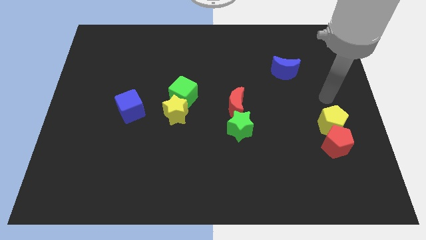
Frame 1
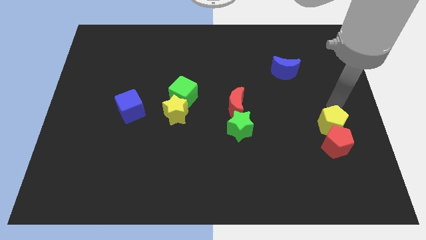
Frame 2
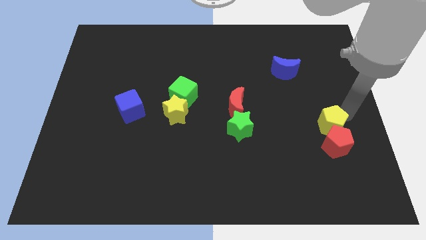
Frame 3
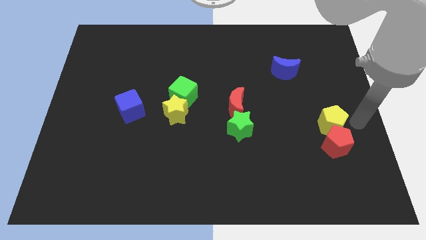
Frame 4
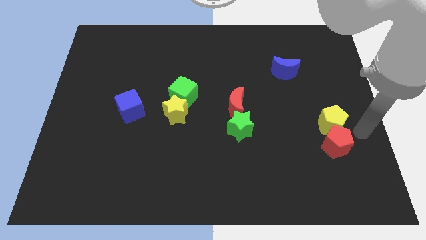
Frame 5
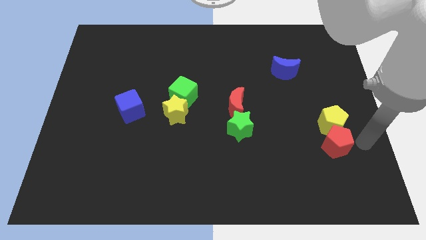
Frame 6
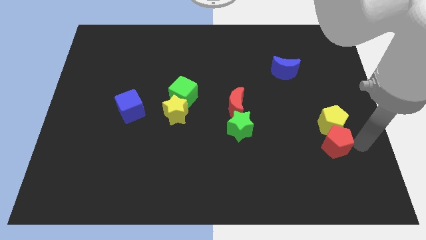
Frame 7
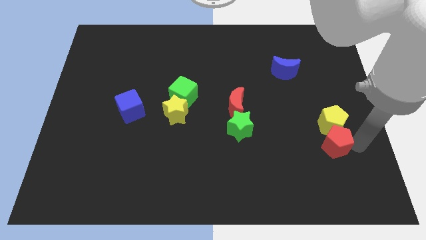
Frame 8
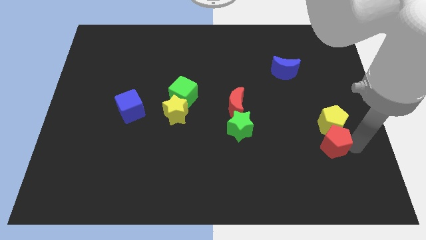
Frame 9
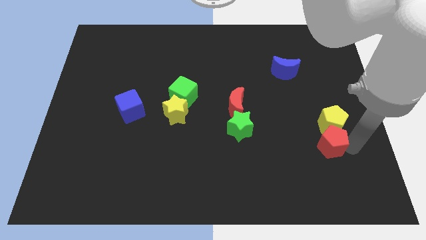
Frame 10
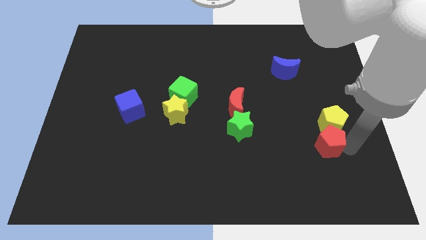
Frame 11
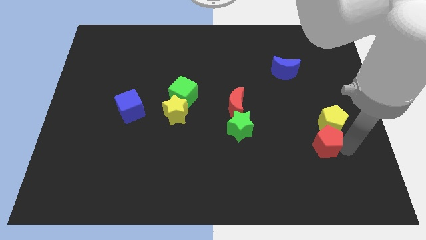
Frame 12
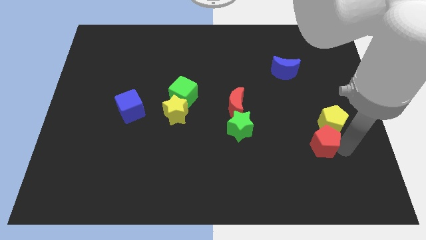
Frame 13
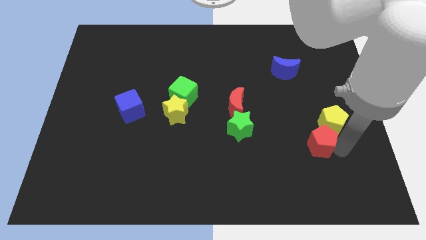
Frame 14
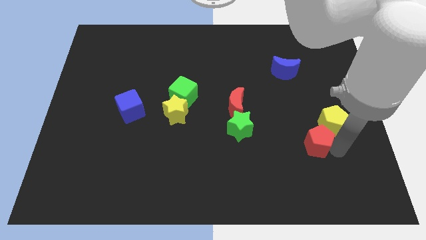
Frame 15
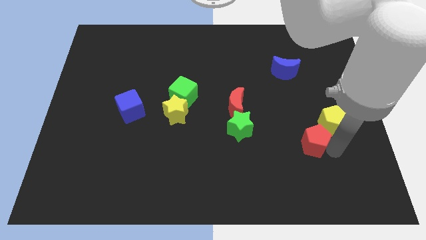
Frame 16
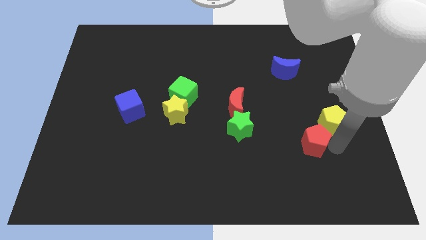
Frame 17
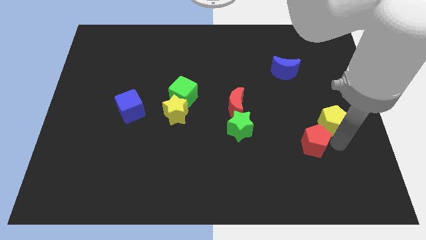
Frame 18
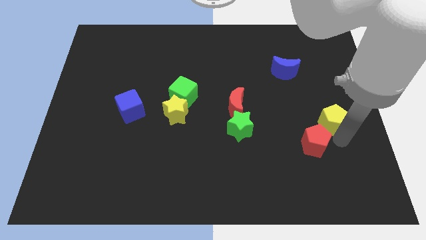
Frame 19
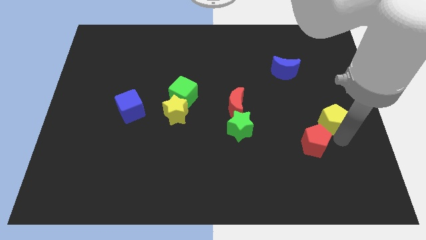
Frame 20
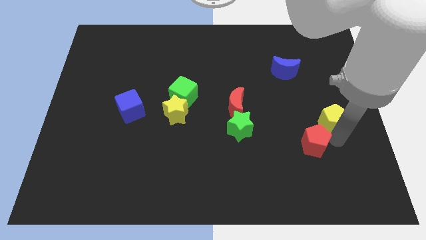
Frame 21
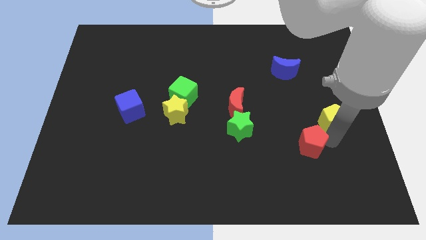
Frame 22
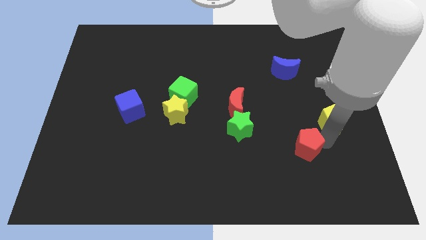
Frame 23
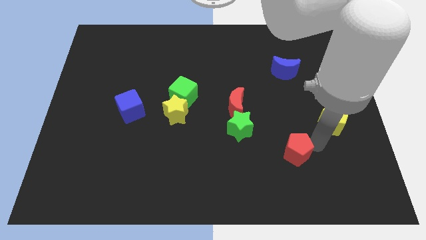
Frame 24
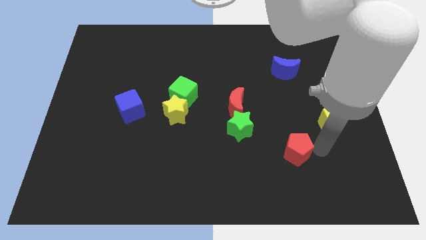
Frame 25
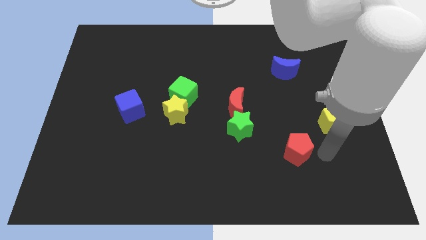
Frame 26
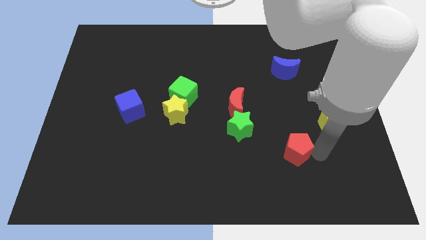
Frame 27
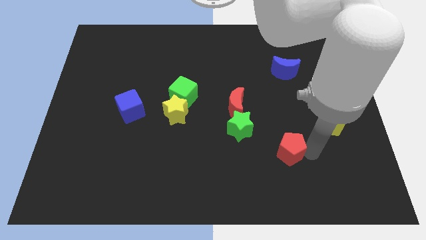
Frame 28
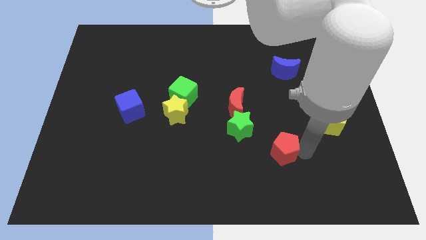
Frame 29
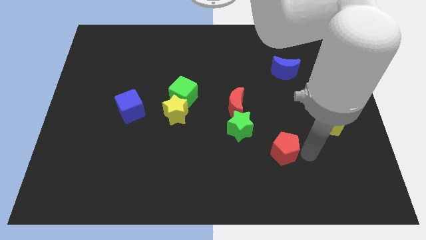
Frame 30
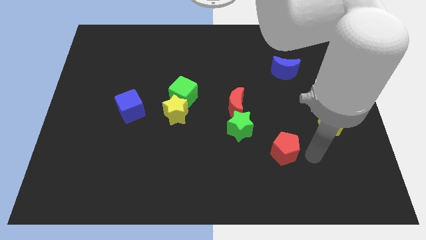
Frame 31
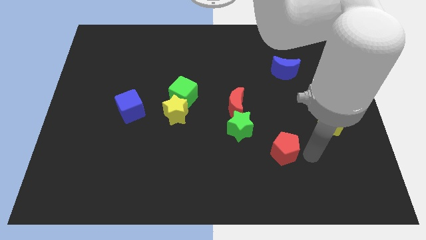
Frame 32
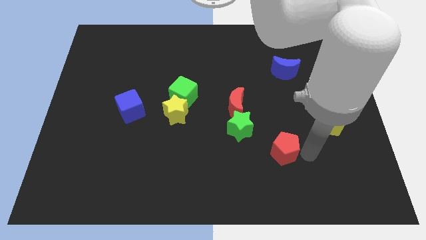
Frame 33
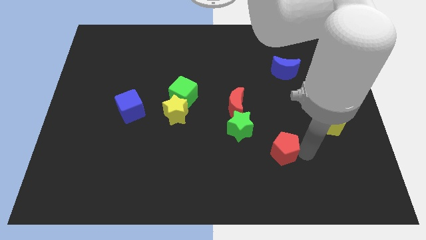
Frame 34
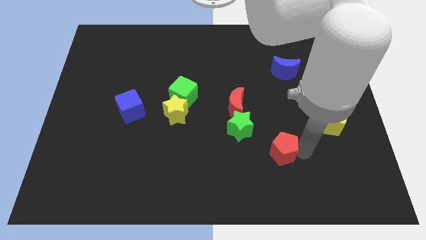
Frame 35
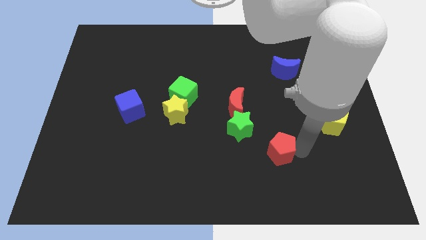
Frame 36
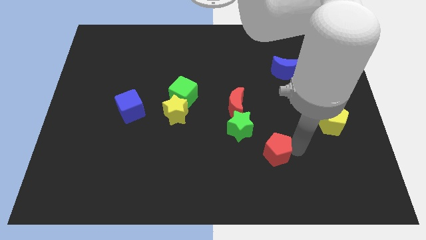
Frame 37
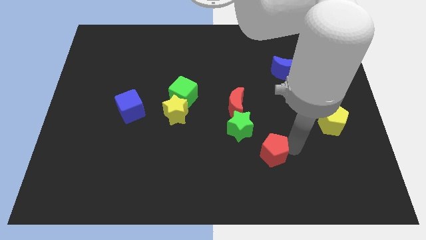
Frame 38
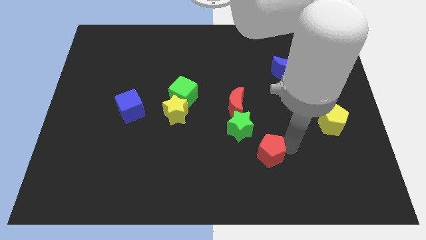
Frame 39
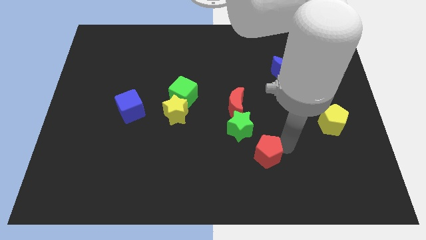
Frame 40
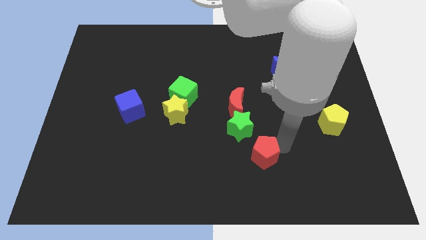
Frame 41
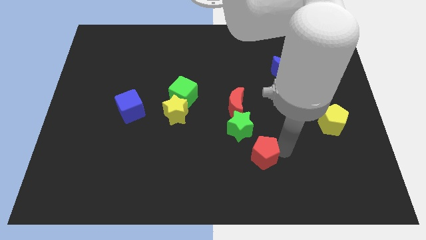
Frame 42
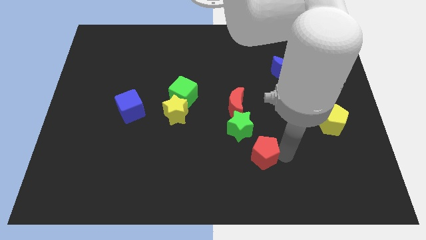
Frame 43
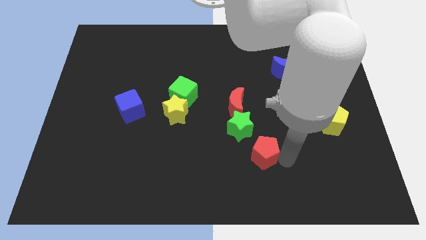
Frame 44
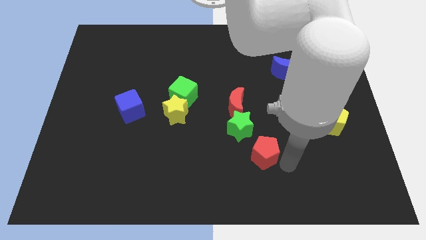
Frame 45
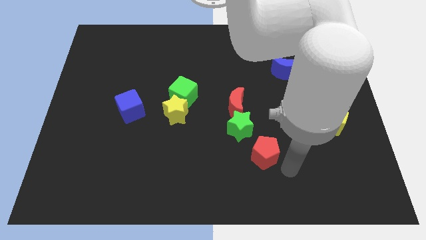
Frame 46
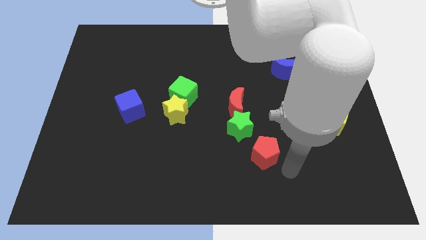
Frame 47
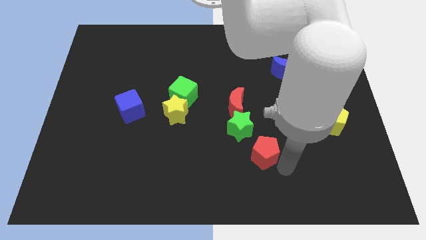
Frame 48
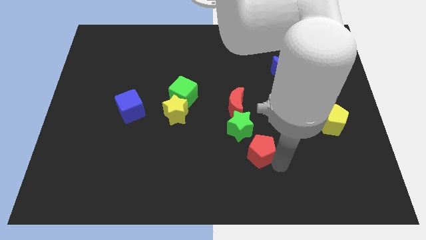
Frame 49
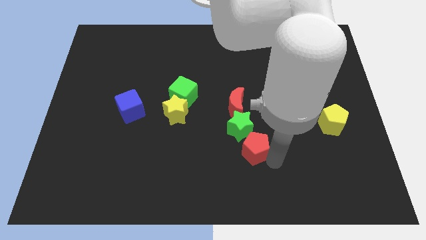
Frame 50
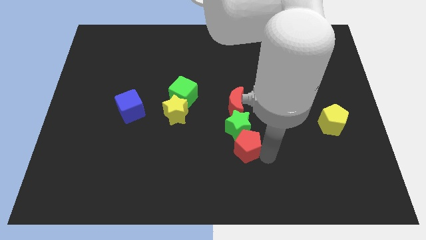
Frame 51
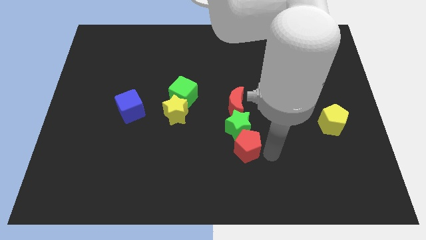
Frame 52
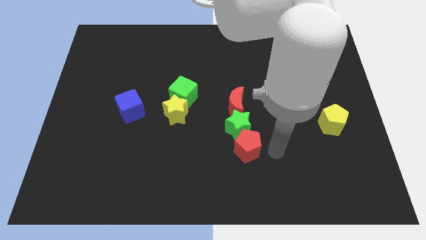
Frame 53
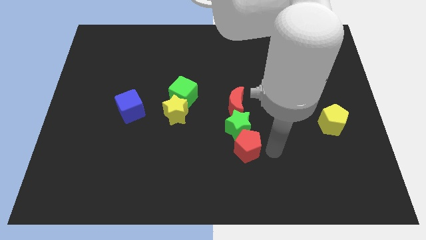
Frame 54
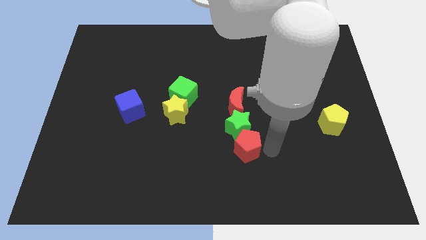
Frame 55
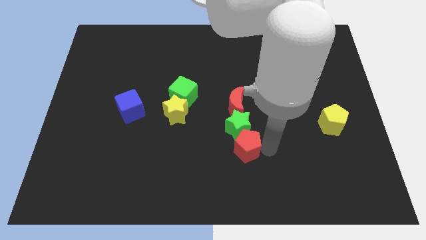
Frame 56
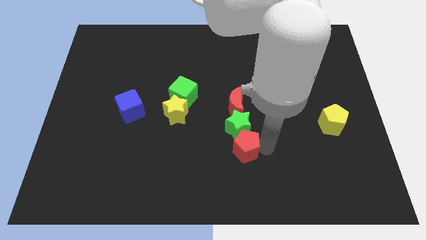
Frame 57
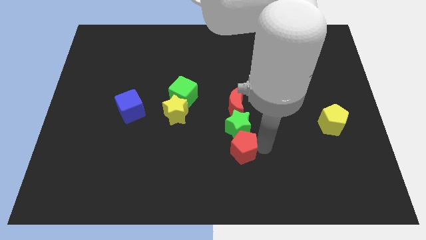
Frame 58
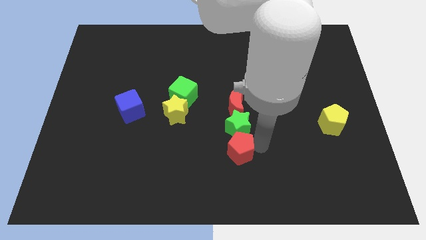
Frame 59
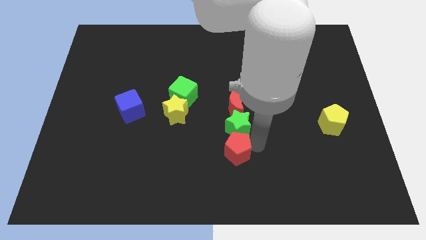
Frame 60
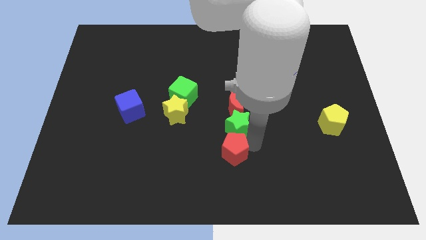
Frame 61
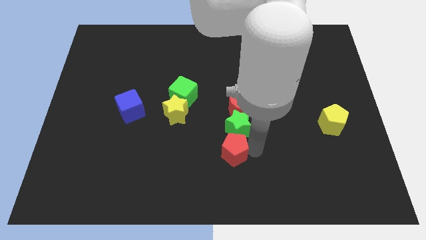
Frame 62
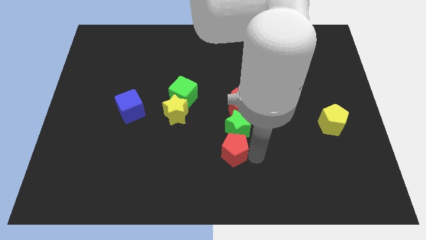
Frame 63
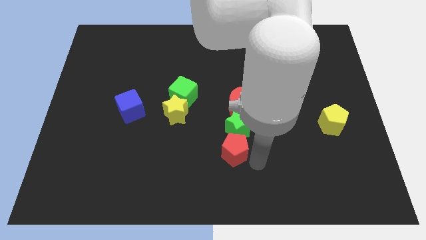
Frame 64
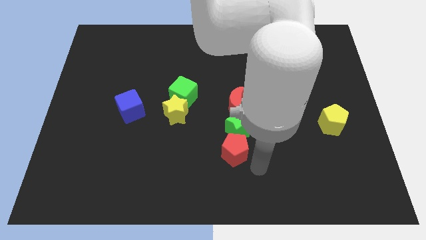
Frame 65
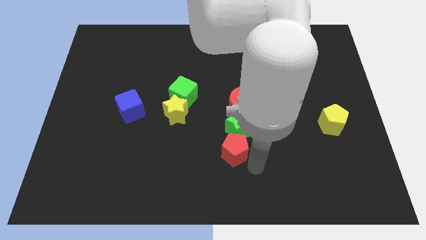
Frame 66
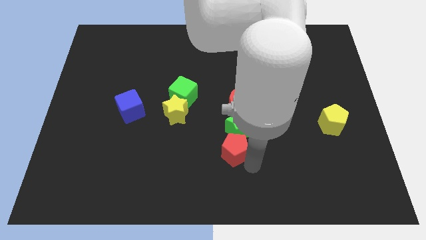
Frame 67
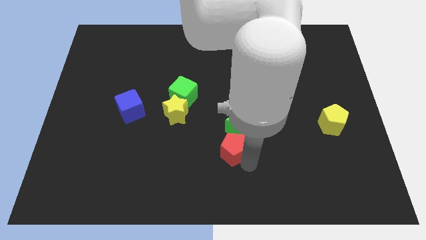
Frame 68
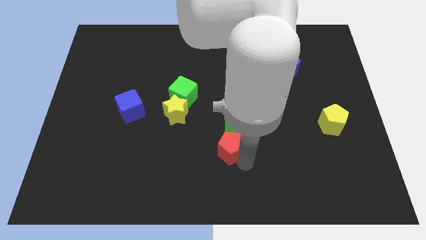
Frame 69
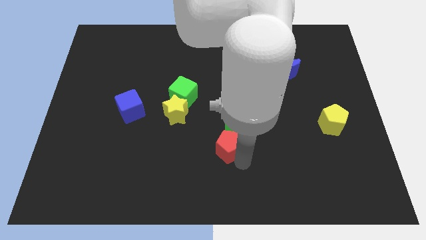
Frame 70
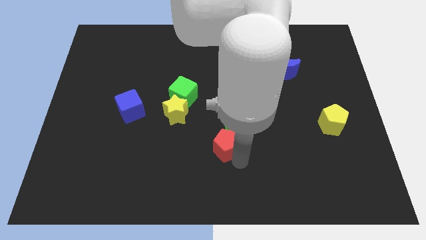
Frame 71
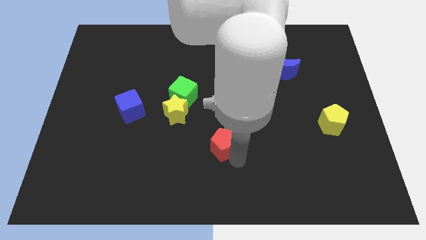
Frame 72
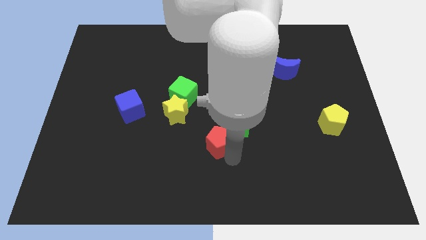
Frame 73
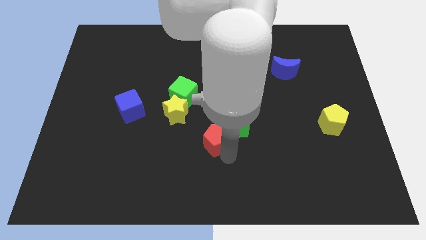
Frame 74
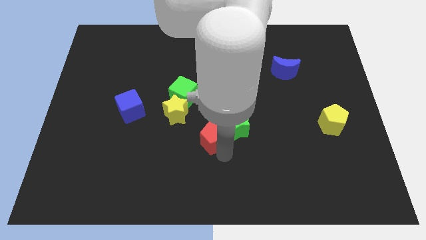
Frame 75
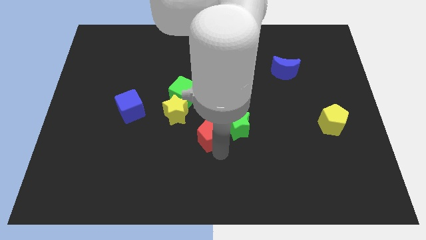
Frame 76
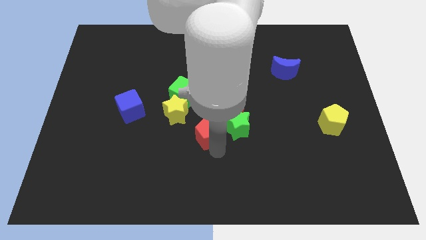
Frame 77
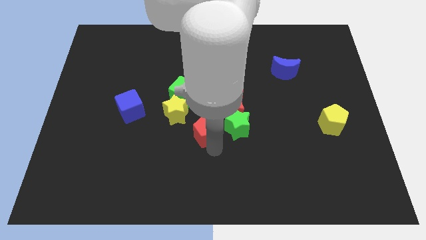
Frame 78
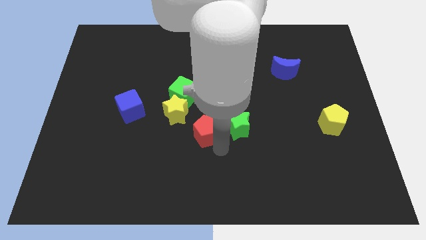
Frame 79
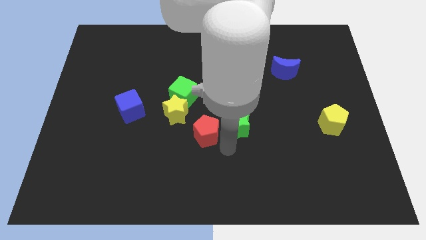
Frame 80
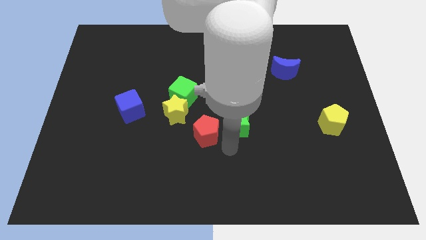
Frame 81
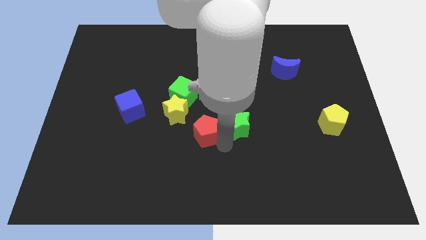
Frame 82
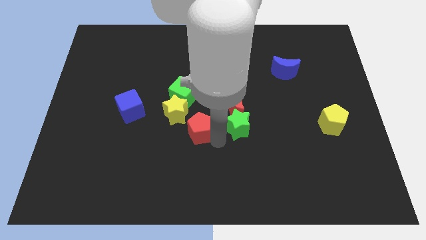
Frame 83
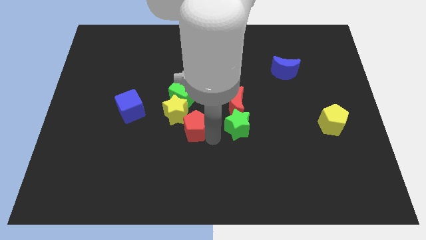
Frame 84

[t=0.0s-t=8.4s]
move the red pentagon to the yellow star
